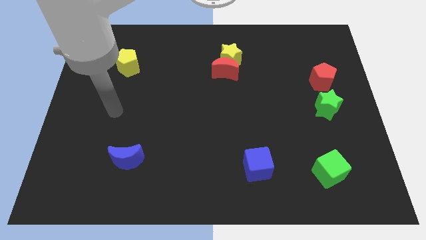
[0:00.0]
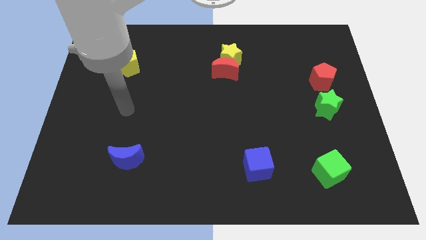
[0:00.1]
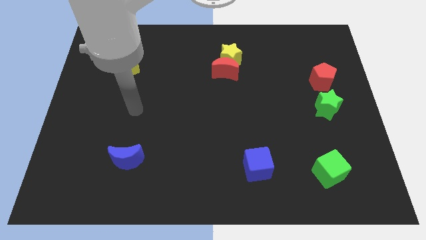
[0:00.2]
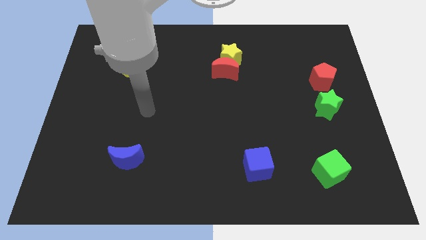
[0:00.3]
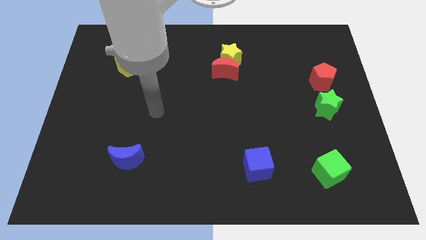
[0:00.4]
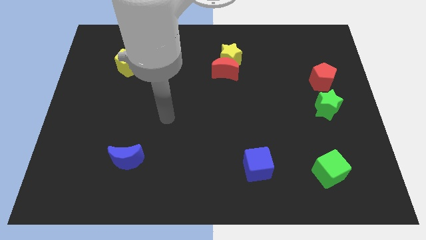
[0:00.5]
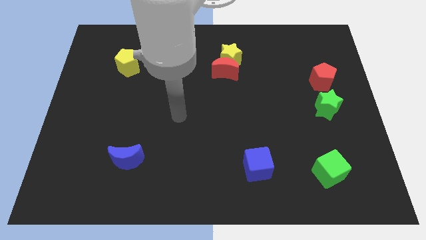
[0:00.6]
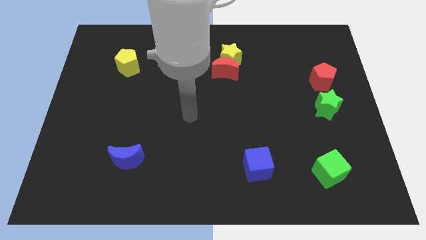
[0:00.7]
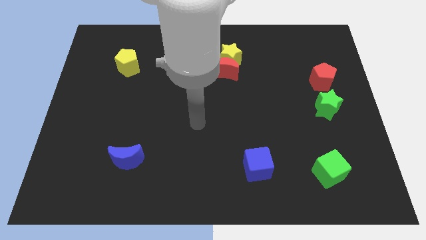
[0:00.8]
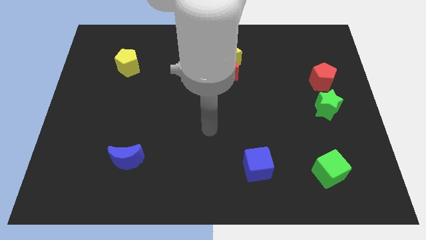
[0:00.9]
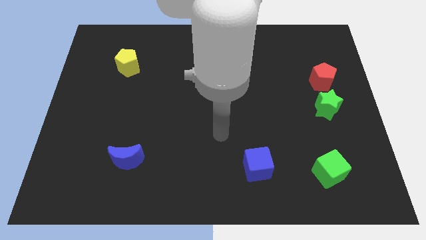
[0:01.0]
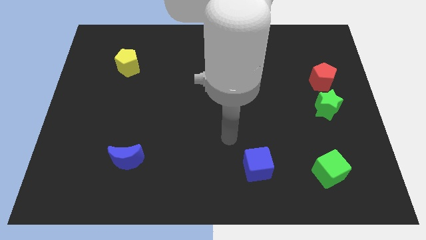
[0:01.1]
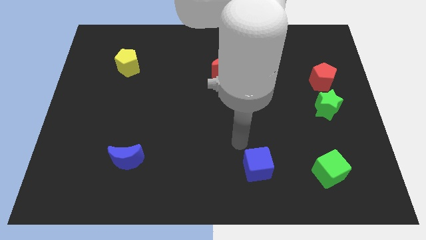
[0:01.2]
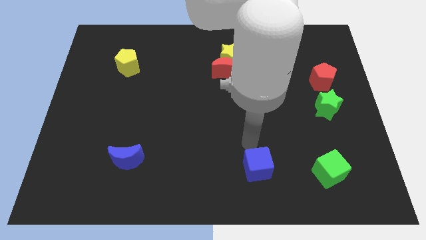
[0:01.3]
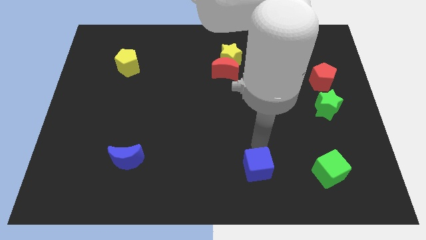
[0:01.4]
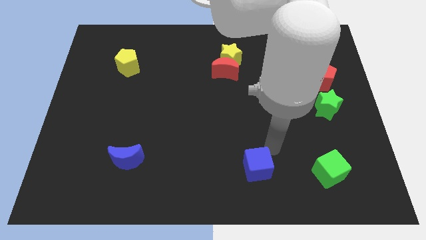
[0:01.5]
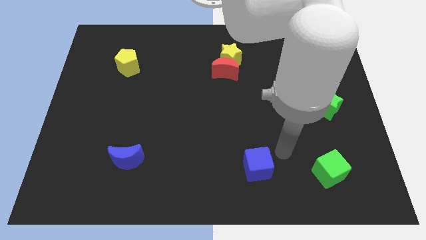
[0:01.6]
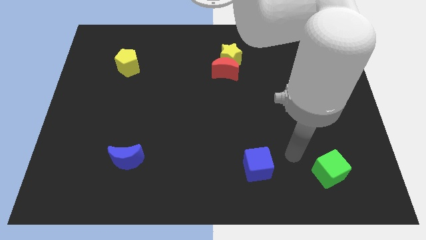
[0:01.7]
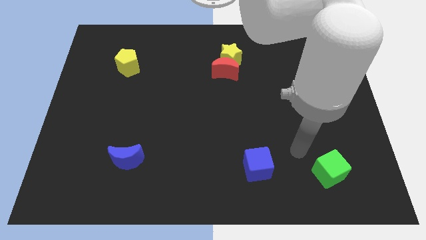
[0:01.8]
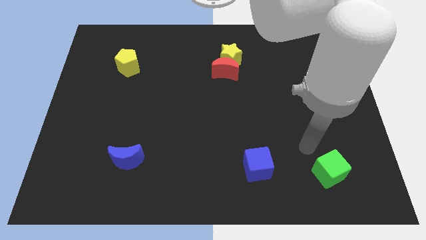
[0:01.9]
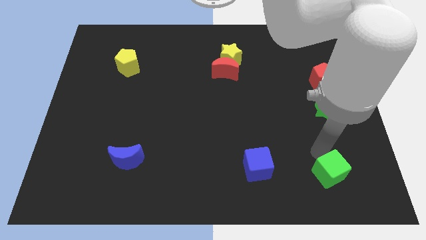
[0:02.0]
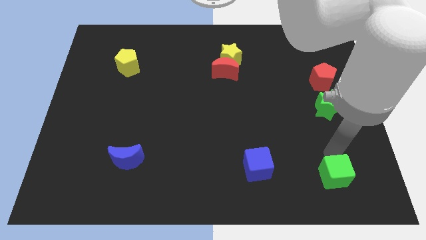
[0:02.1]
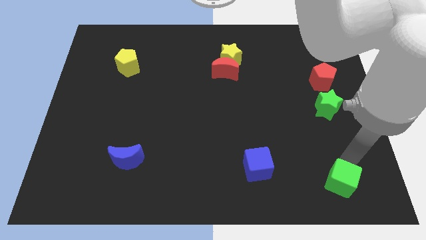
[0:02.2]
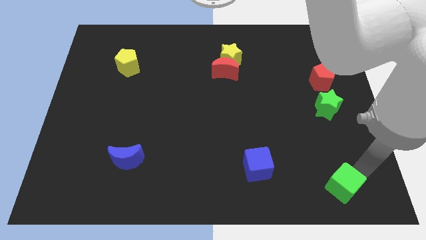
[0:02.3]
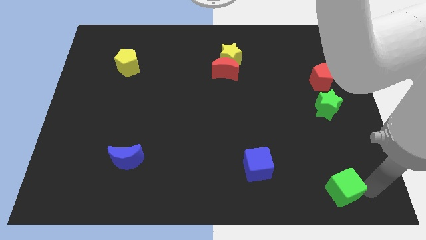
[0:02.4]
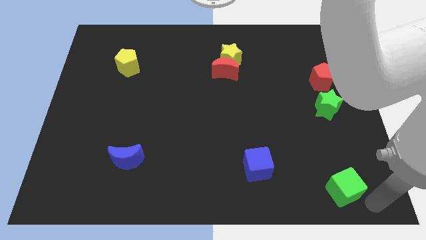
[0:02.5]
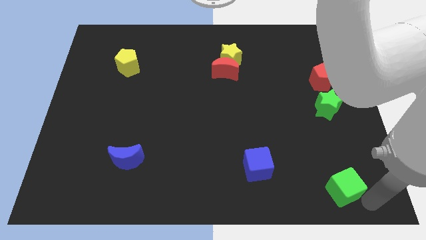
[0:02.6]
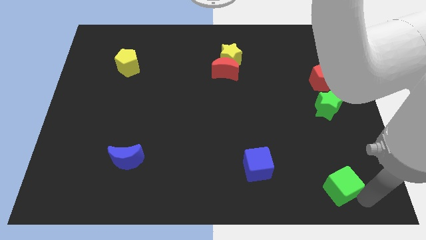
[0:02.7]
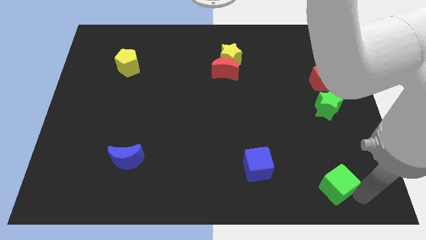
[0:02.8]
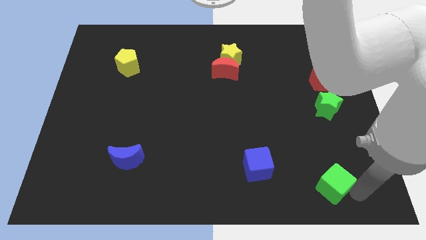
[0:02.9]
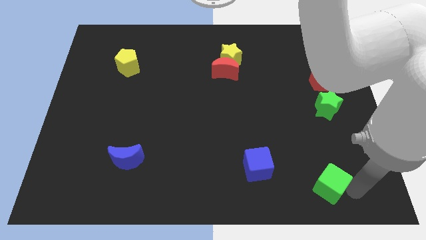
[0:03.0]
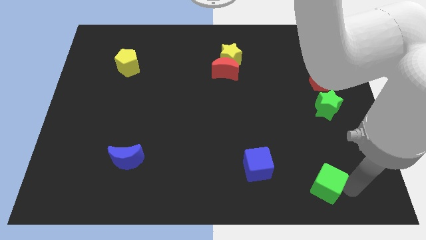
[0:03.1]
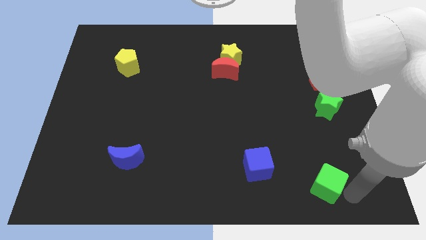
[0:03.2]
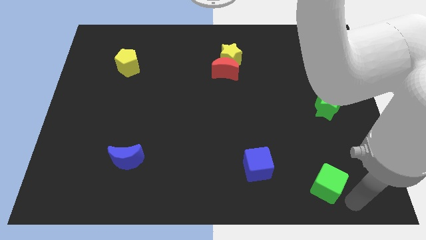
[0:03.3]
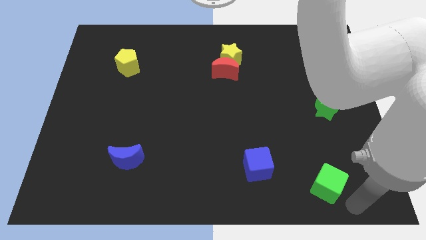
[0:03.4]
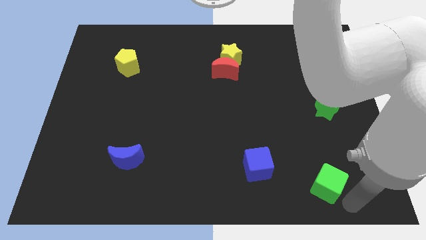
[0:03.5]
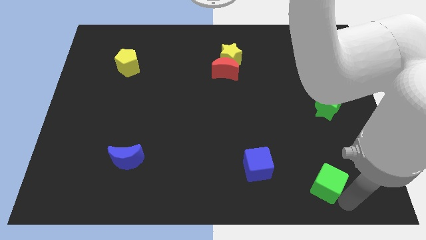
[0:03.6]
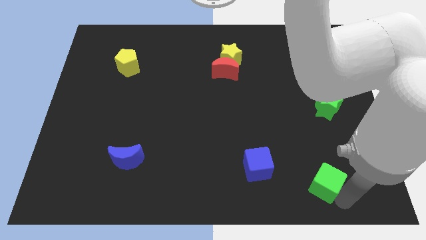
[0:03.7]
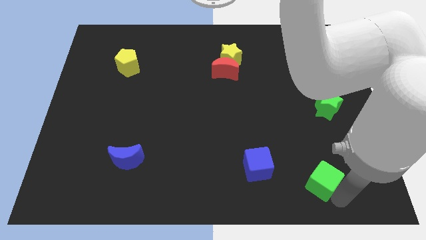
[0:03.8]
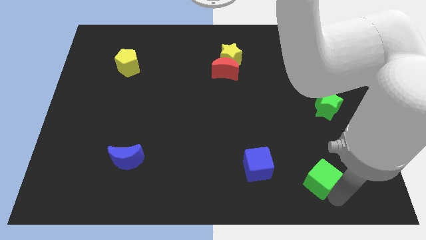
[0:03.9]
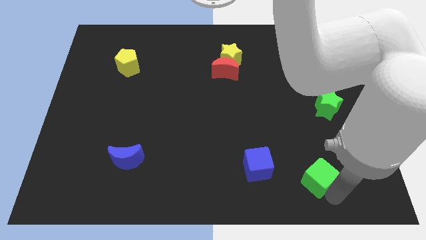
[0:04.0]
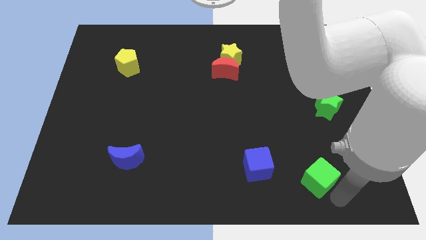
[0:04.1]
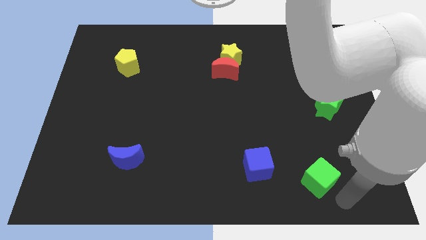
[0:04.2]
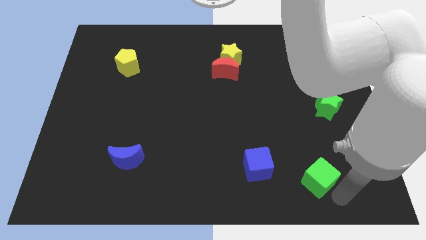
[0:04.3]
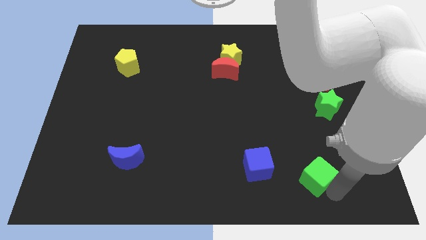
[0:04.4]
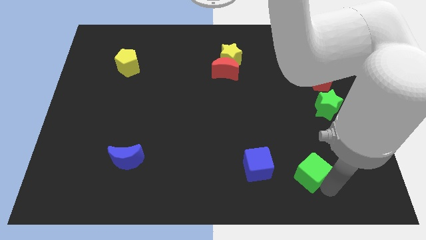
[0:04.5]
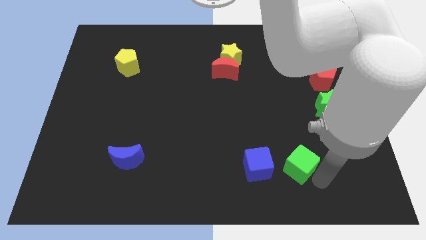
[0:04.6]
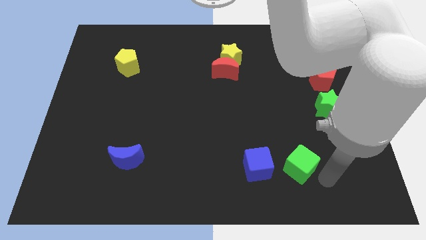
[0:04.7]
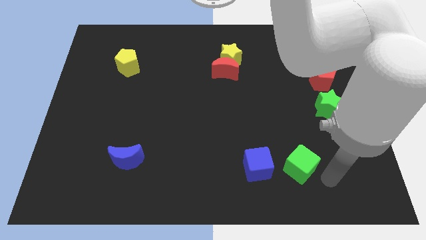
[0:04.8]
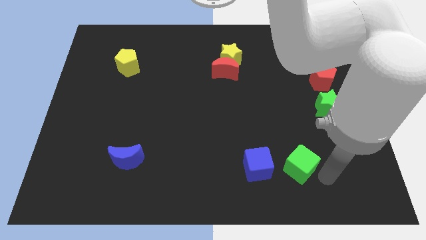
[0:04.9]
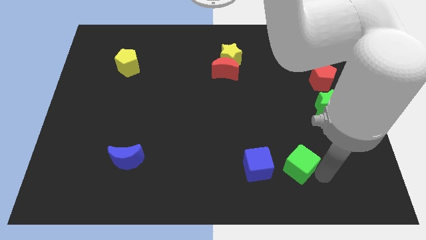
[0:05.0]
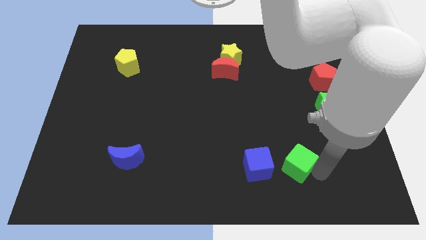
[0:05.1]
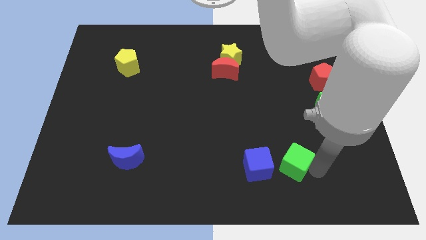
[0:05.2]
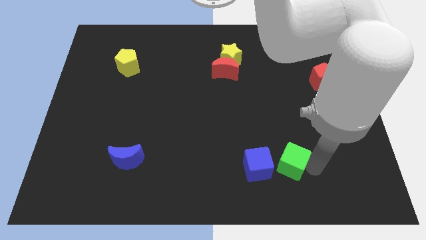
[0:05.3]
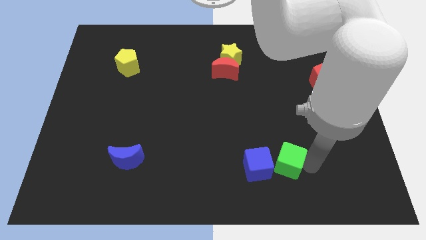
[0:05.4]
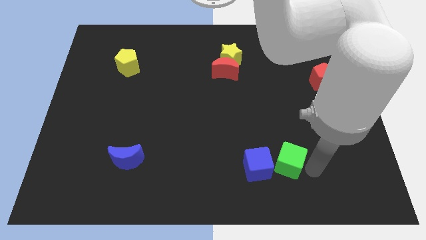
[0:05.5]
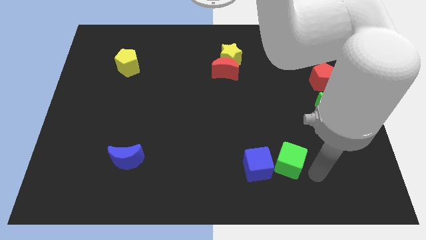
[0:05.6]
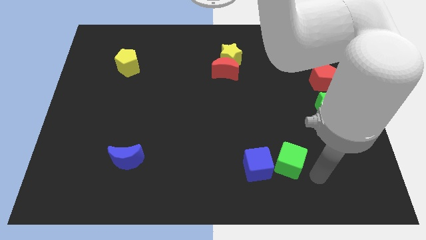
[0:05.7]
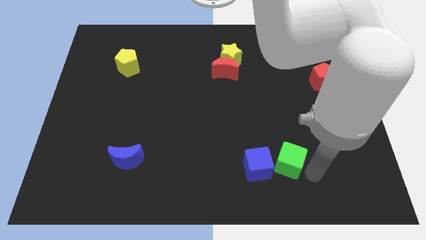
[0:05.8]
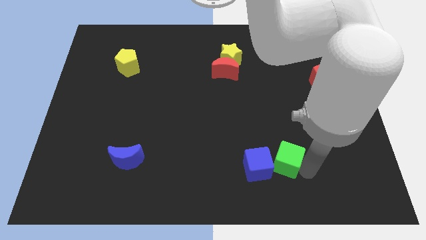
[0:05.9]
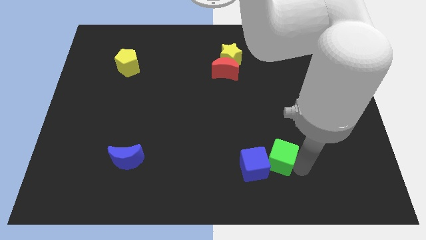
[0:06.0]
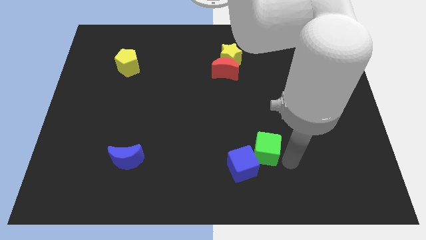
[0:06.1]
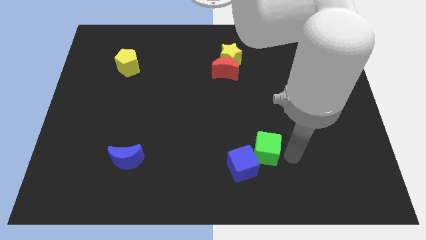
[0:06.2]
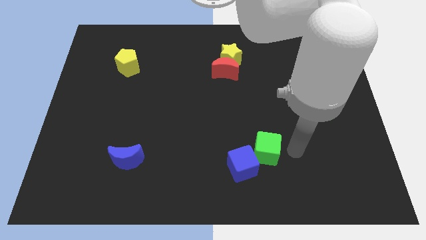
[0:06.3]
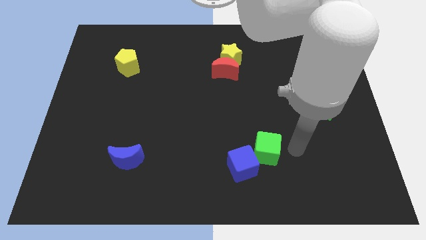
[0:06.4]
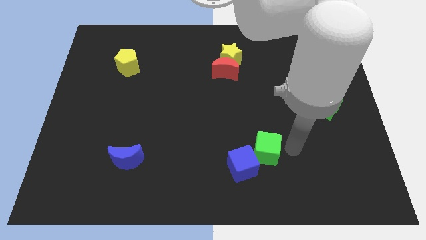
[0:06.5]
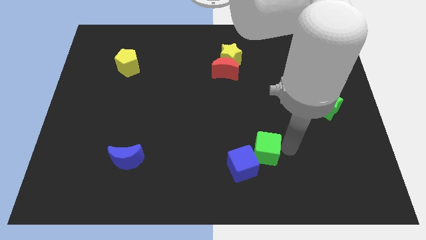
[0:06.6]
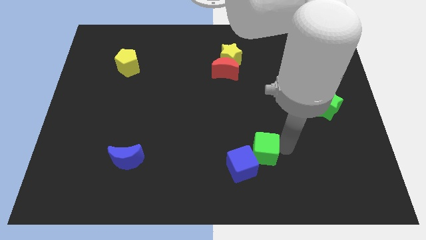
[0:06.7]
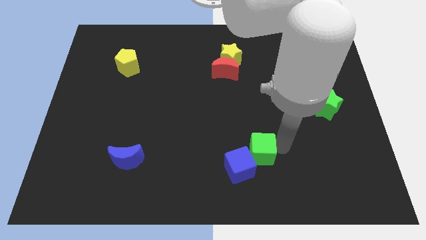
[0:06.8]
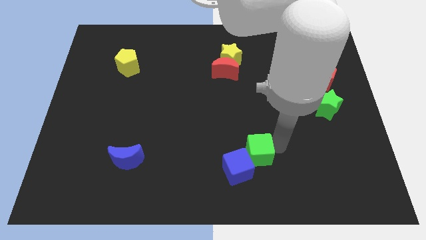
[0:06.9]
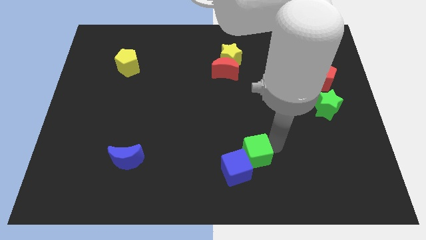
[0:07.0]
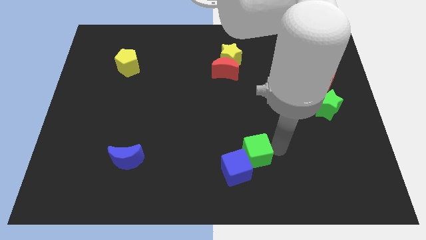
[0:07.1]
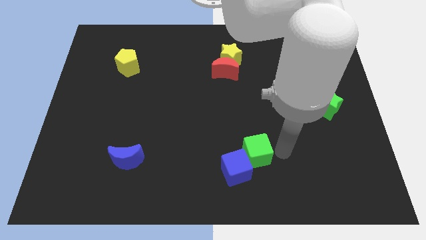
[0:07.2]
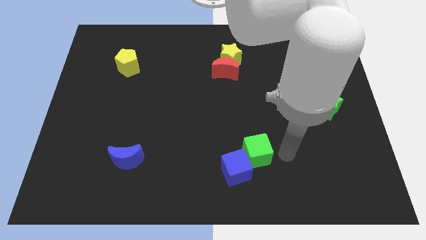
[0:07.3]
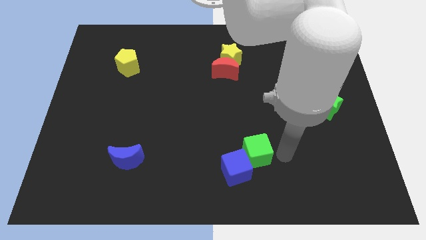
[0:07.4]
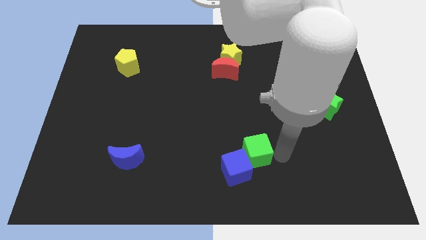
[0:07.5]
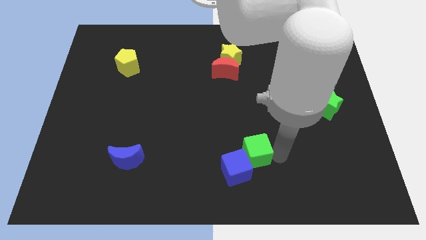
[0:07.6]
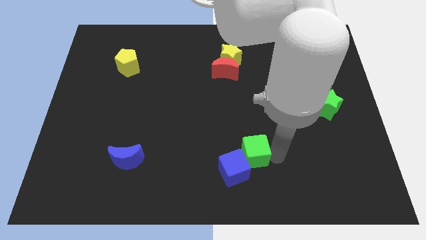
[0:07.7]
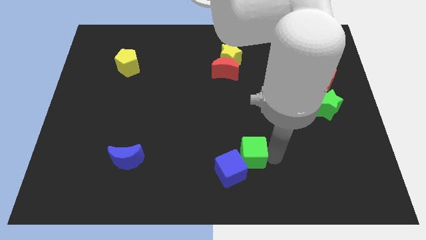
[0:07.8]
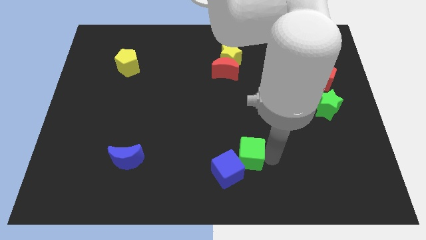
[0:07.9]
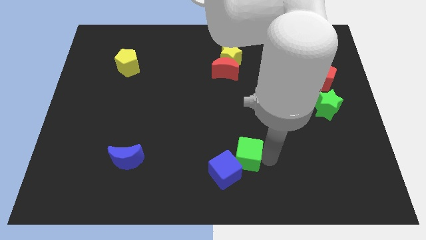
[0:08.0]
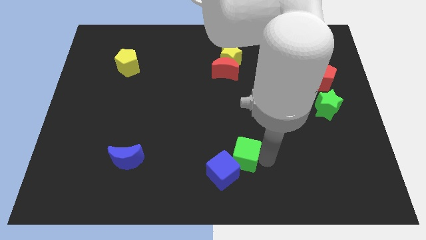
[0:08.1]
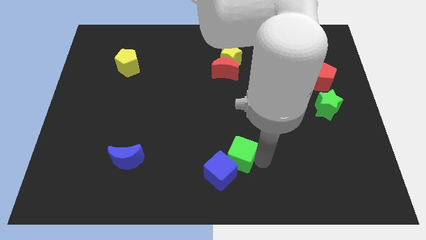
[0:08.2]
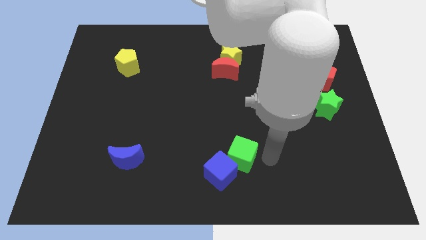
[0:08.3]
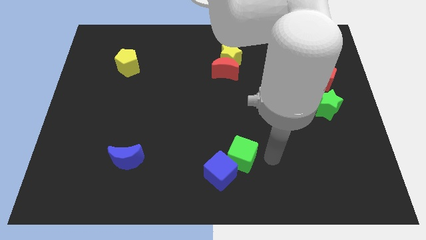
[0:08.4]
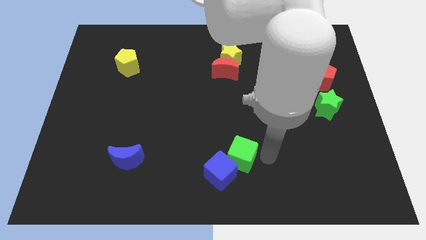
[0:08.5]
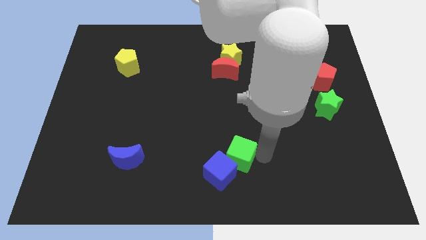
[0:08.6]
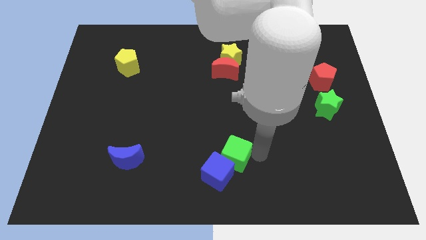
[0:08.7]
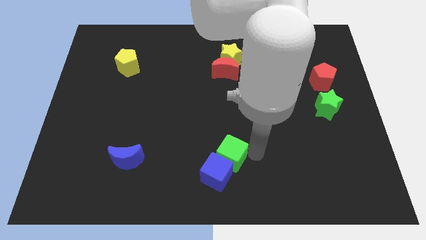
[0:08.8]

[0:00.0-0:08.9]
move the green cube left
